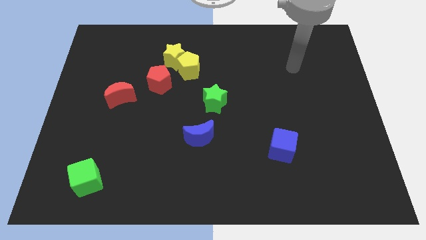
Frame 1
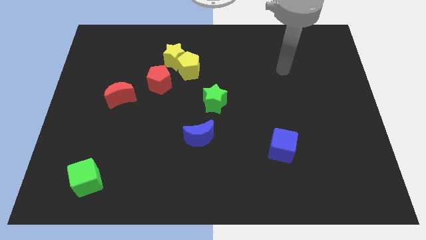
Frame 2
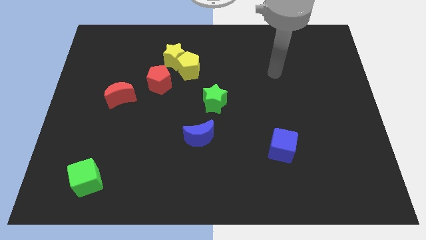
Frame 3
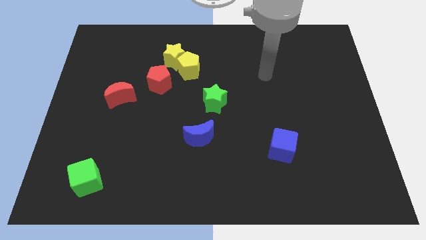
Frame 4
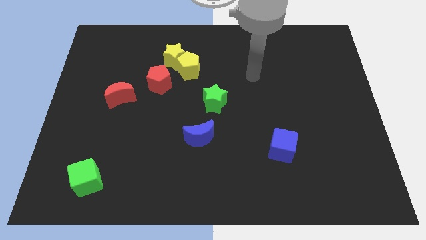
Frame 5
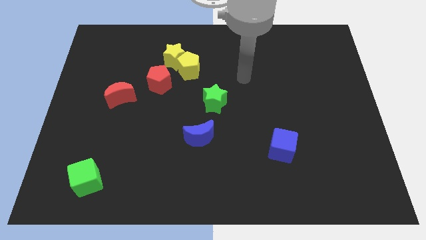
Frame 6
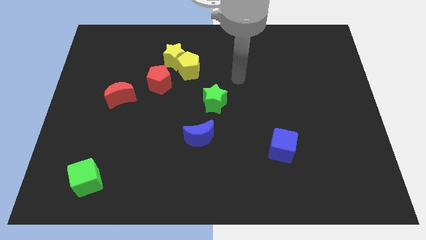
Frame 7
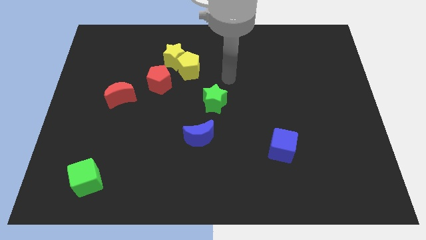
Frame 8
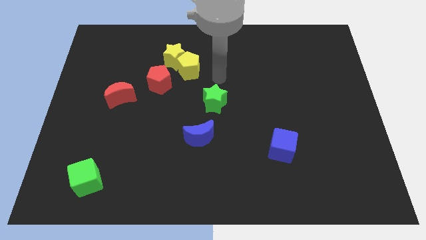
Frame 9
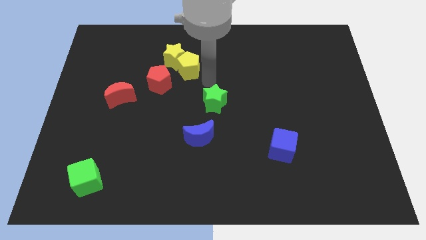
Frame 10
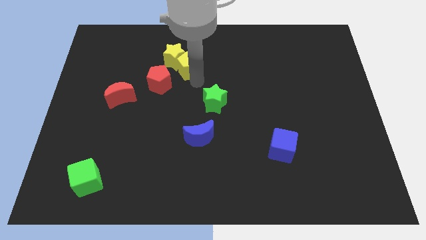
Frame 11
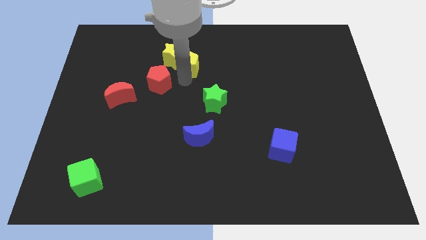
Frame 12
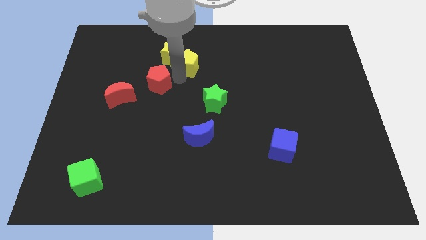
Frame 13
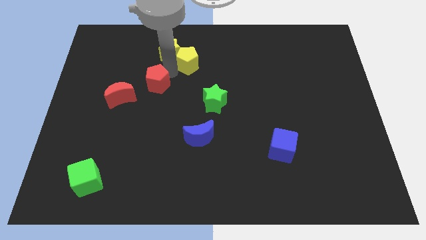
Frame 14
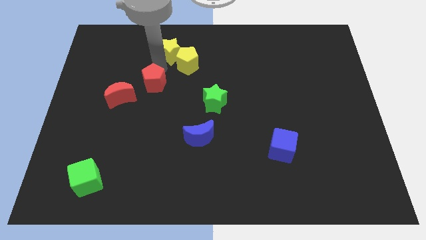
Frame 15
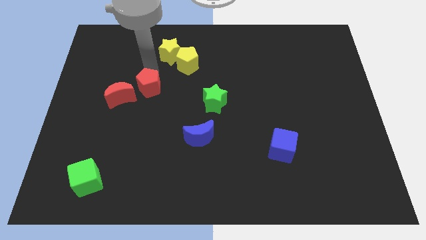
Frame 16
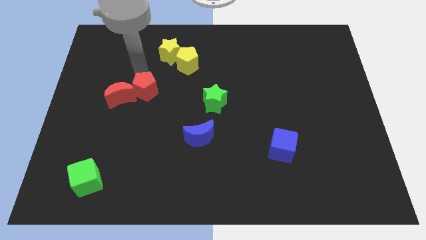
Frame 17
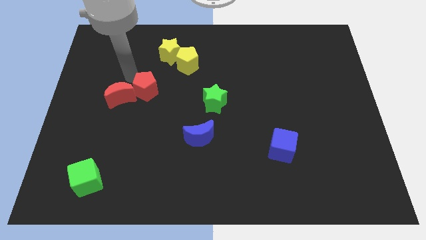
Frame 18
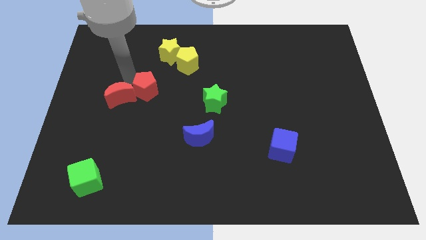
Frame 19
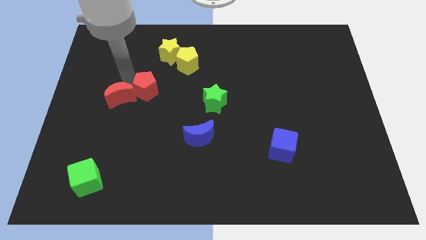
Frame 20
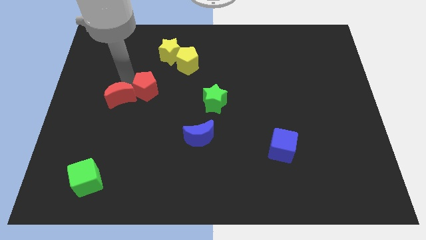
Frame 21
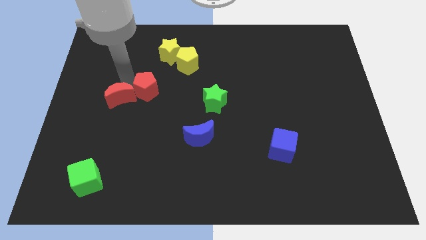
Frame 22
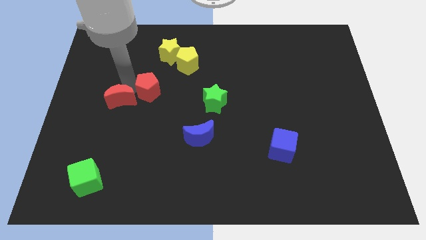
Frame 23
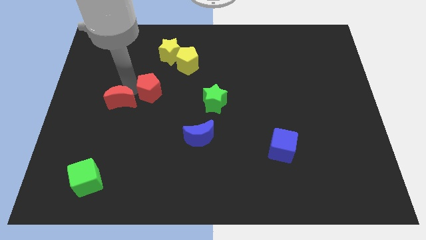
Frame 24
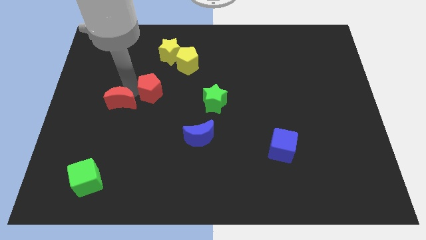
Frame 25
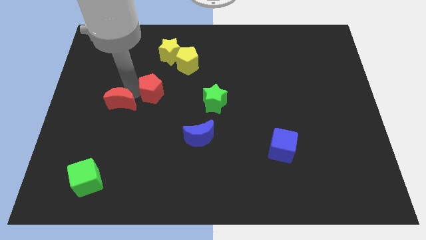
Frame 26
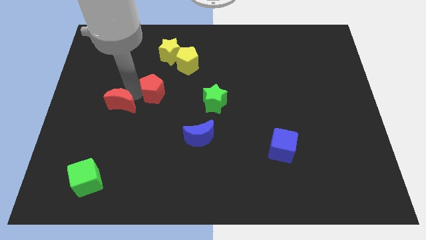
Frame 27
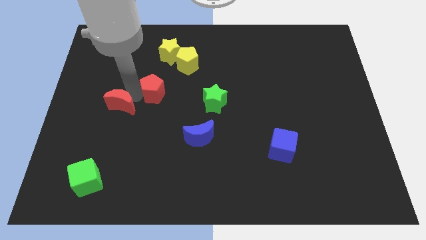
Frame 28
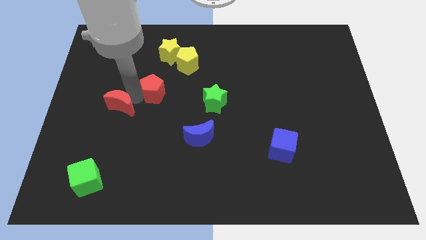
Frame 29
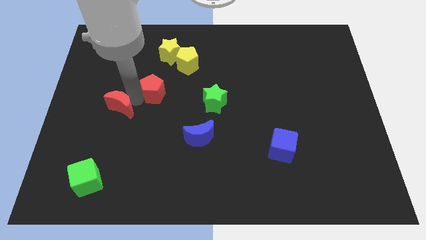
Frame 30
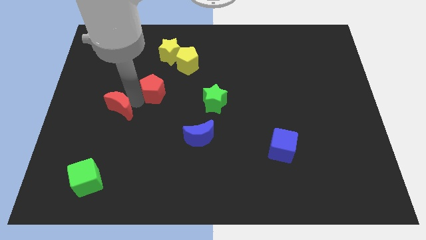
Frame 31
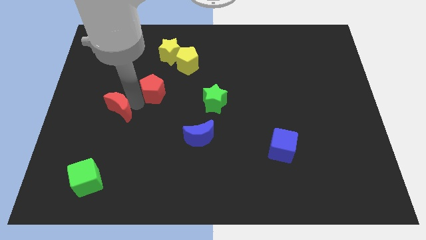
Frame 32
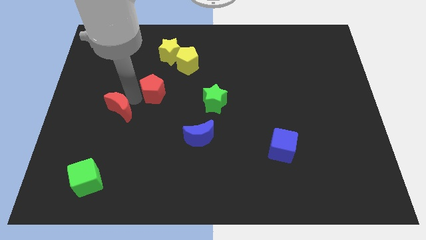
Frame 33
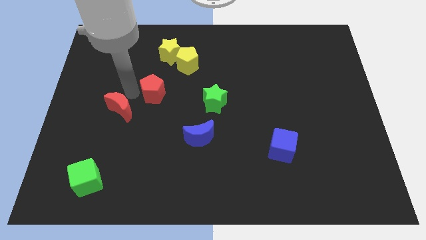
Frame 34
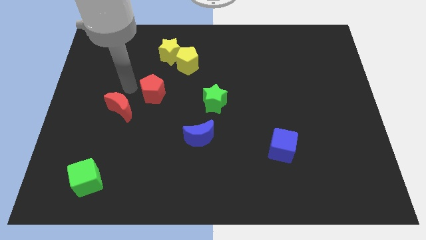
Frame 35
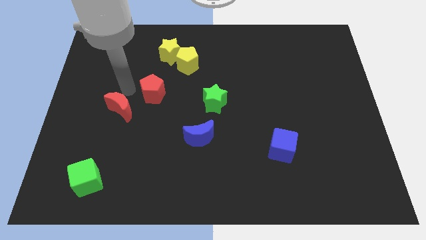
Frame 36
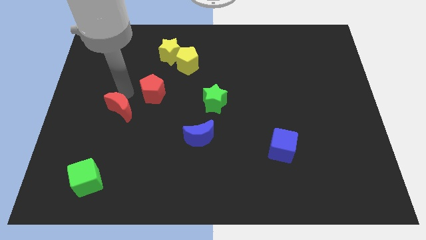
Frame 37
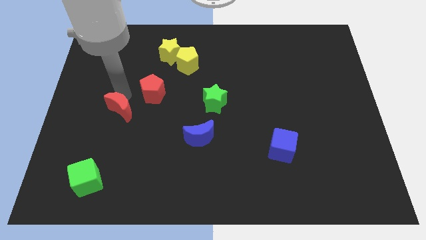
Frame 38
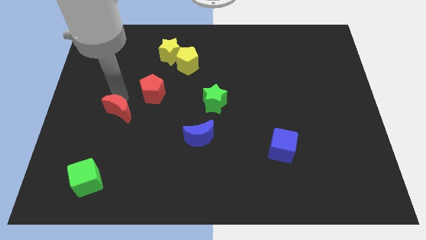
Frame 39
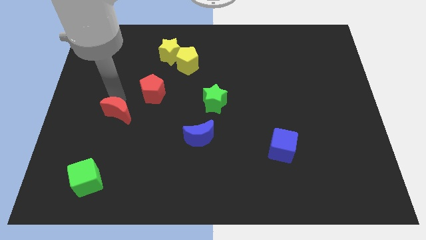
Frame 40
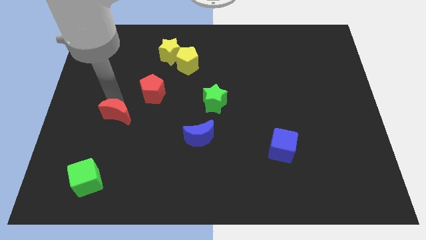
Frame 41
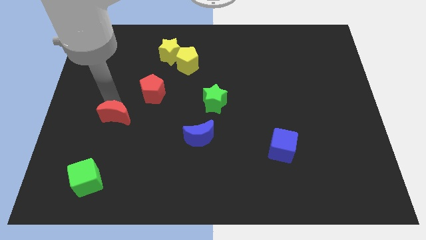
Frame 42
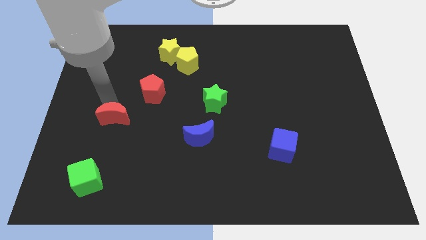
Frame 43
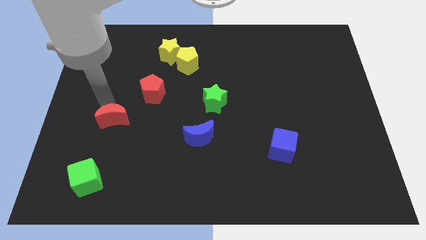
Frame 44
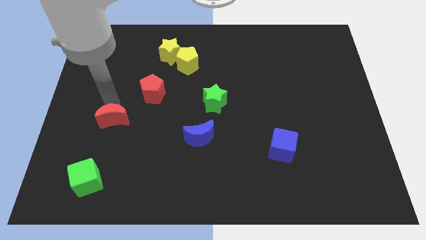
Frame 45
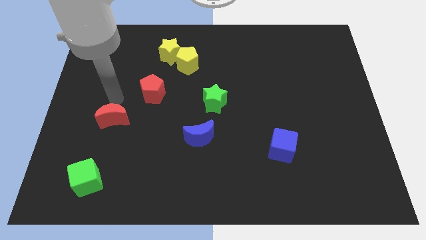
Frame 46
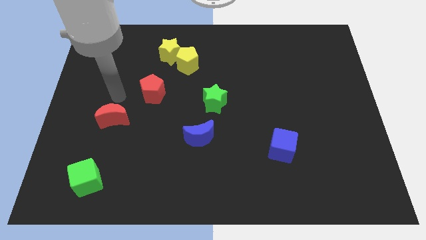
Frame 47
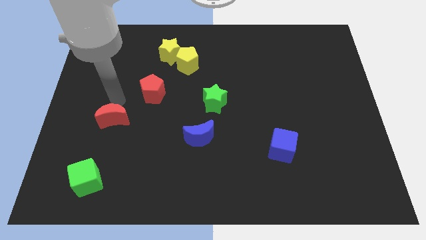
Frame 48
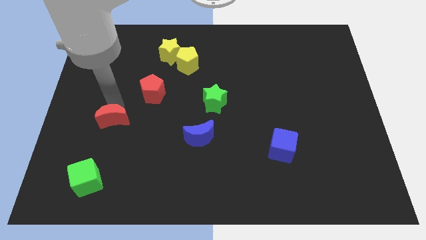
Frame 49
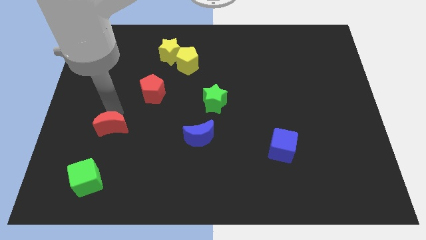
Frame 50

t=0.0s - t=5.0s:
slightly slide the red moon downwards

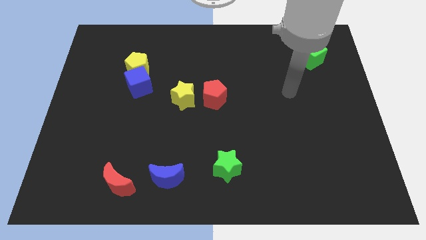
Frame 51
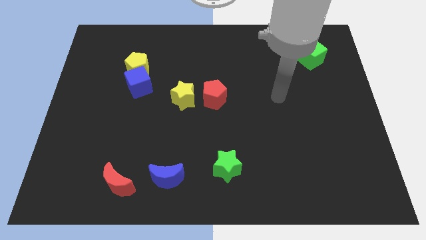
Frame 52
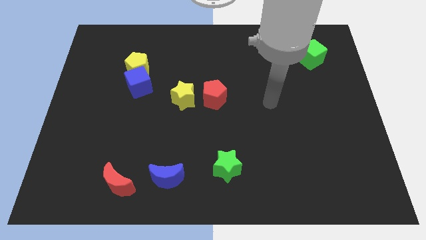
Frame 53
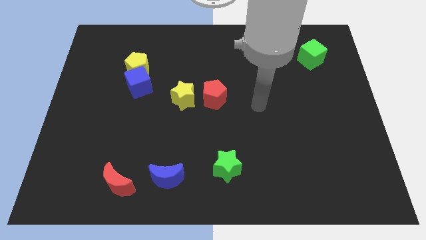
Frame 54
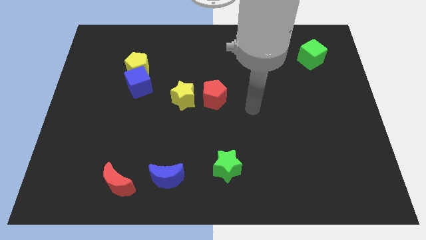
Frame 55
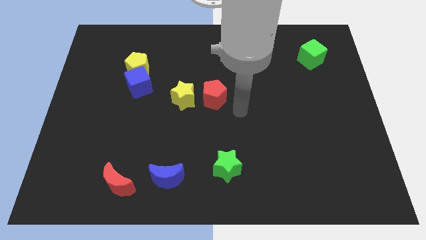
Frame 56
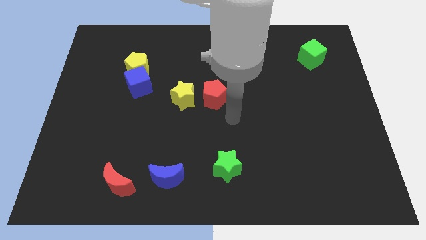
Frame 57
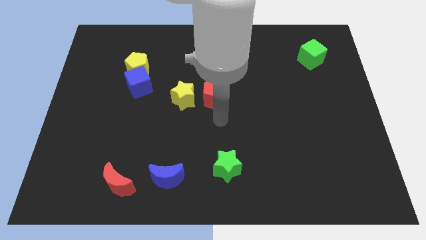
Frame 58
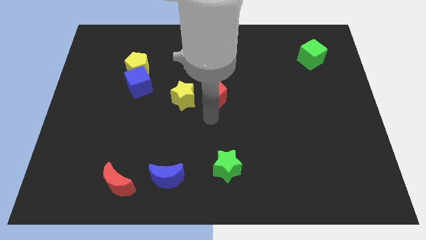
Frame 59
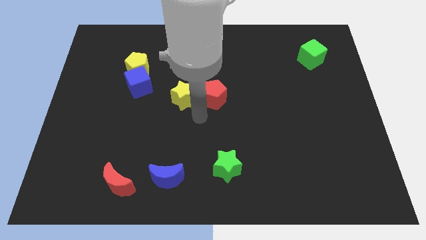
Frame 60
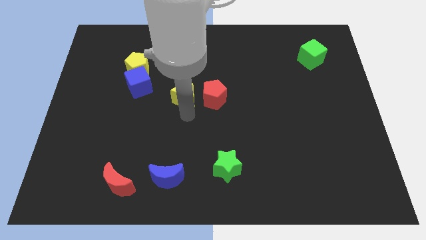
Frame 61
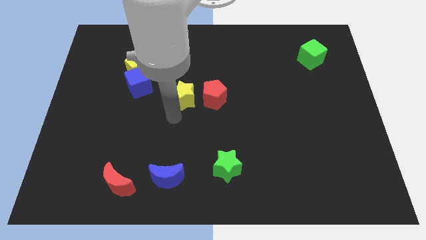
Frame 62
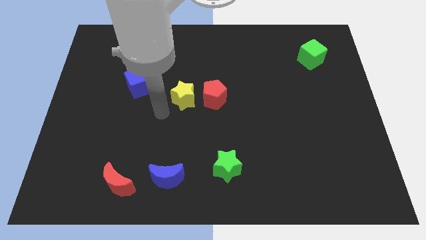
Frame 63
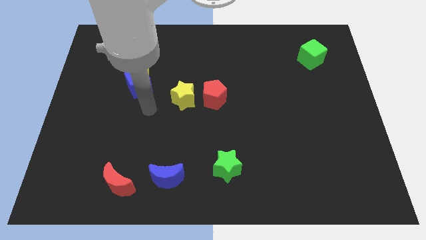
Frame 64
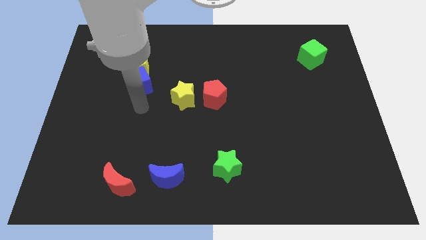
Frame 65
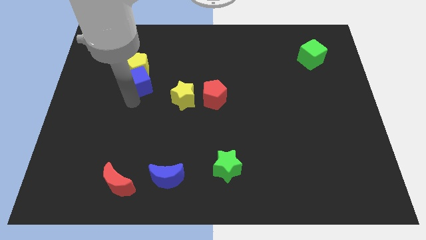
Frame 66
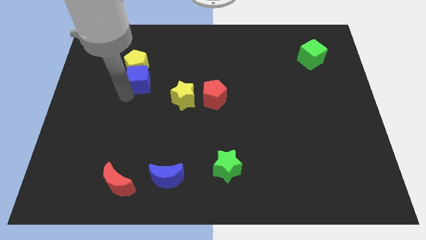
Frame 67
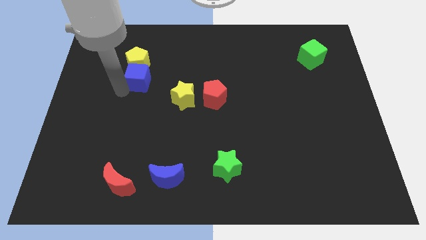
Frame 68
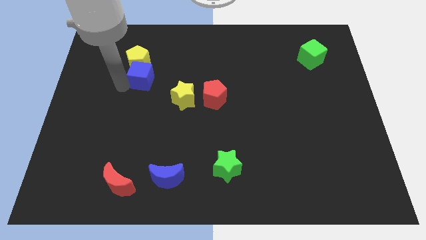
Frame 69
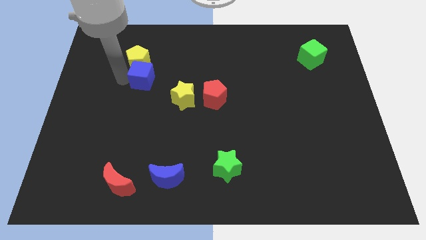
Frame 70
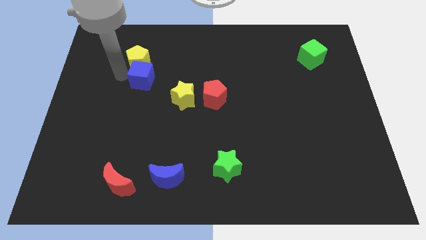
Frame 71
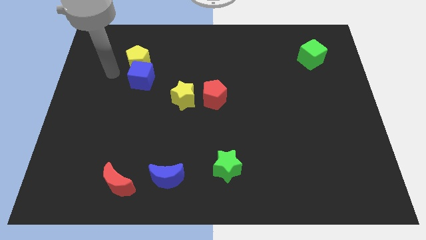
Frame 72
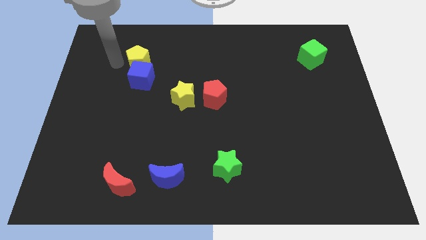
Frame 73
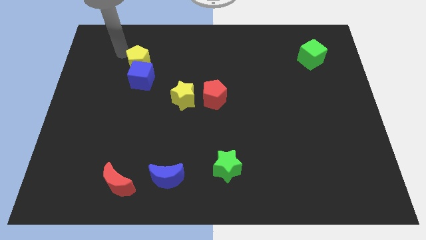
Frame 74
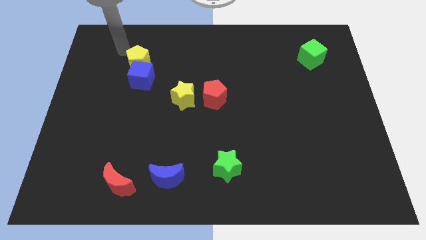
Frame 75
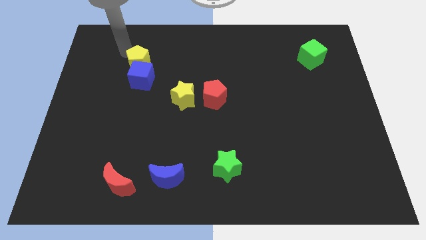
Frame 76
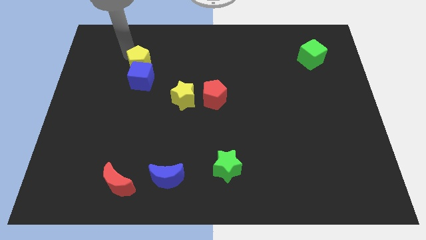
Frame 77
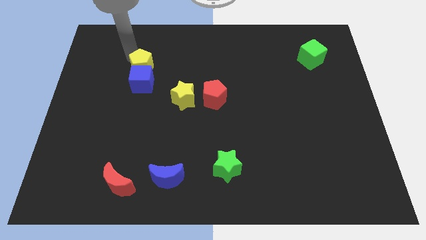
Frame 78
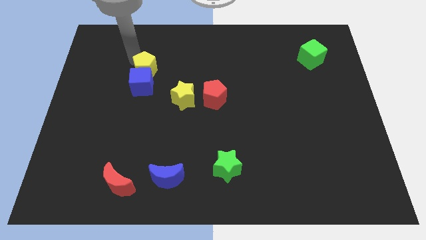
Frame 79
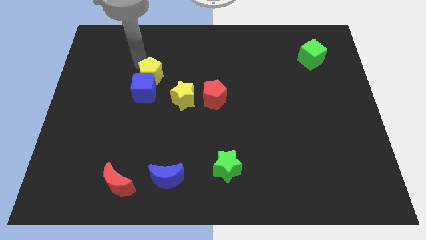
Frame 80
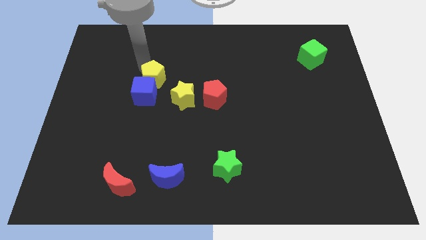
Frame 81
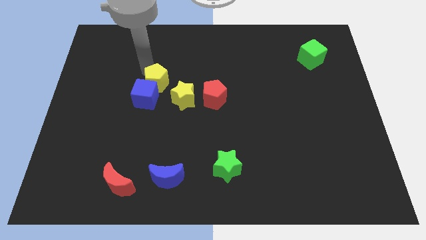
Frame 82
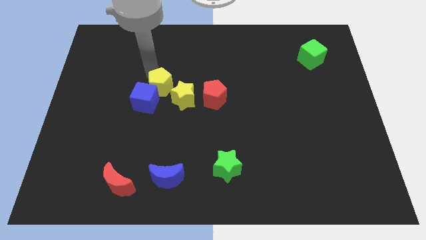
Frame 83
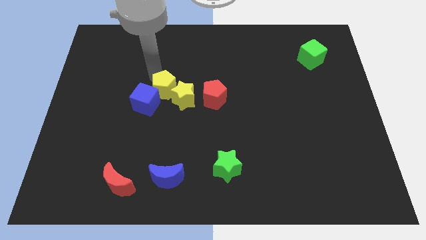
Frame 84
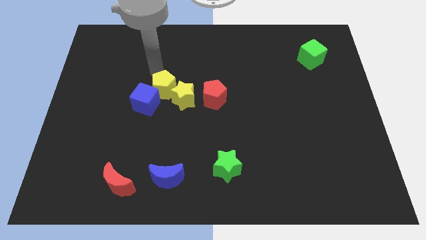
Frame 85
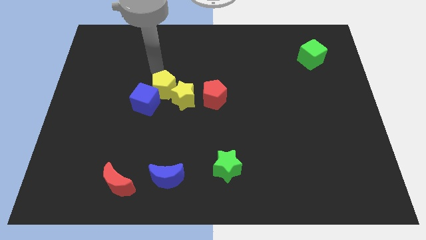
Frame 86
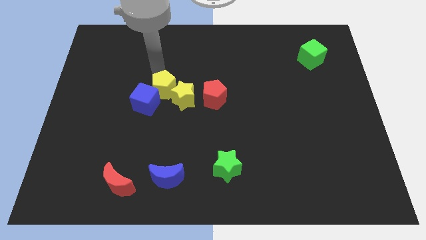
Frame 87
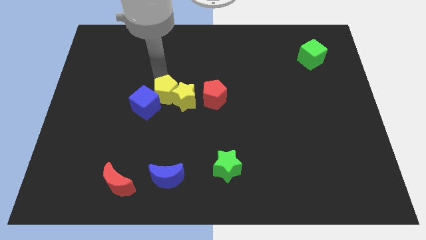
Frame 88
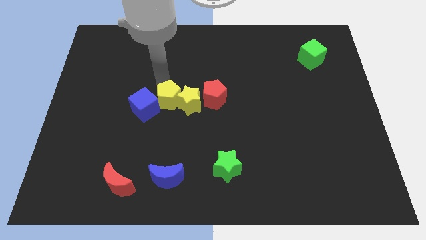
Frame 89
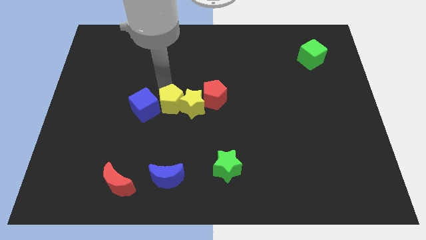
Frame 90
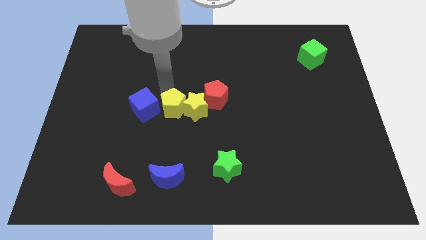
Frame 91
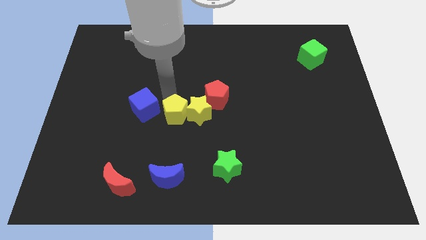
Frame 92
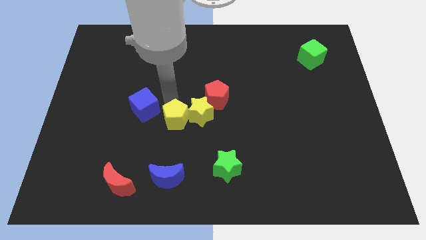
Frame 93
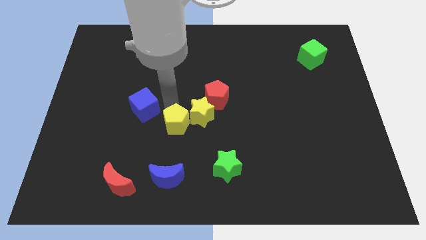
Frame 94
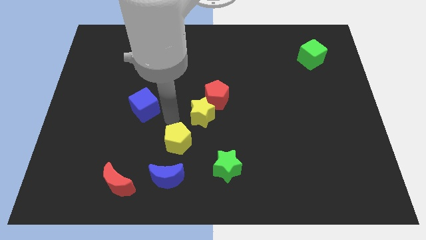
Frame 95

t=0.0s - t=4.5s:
push the yellow pentagon down and to the right
